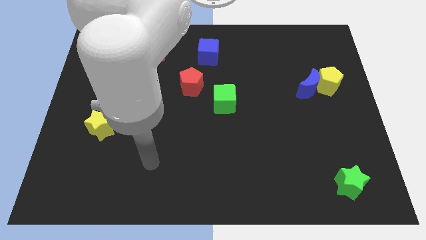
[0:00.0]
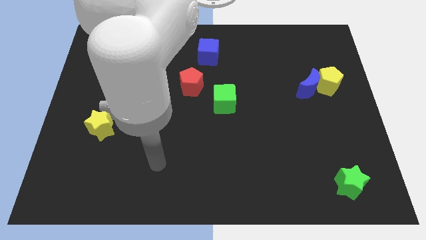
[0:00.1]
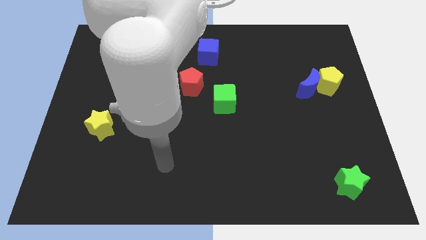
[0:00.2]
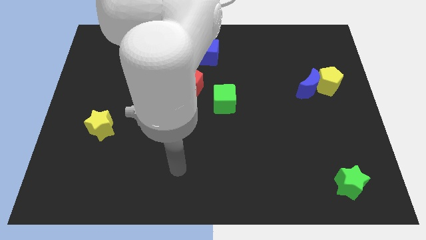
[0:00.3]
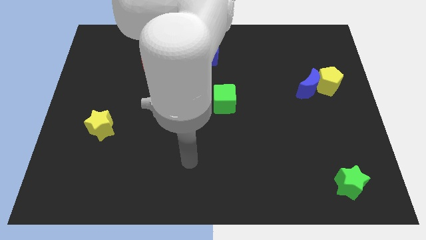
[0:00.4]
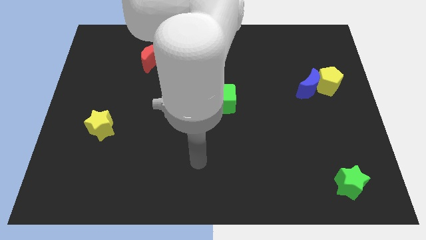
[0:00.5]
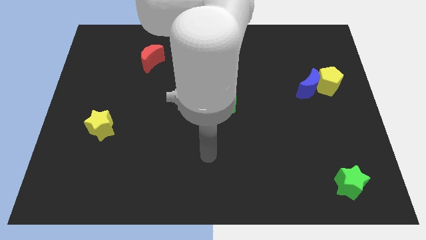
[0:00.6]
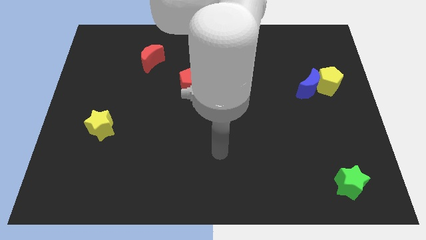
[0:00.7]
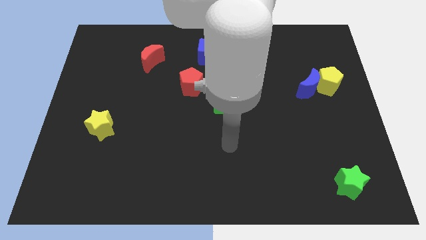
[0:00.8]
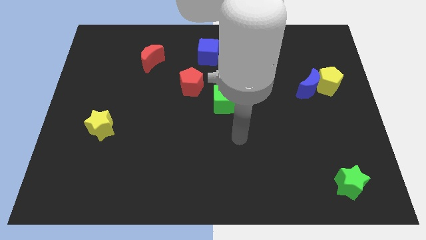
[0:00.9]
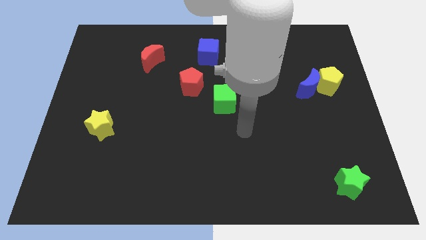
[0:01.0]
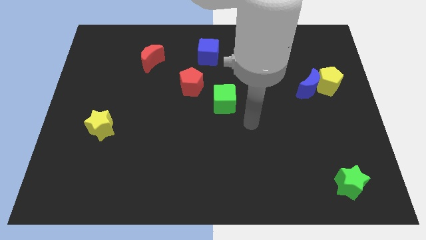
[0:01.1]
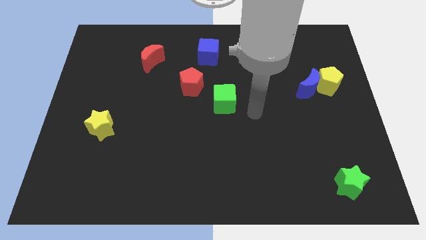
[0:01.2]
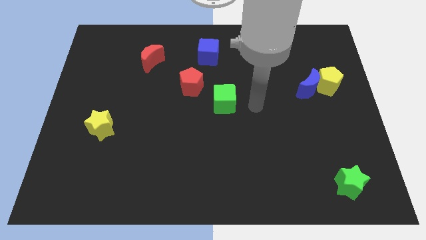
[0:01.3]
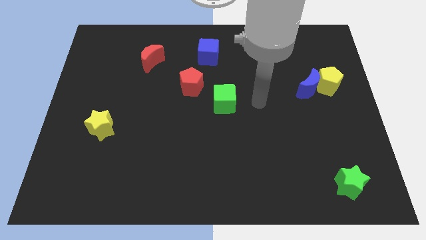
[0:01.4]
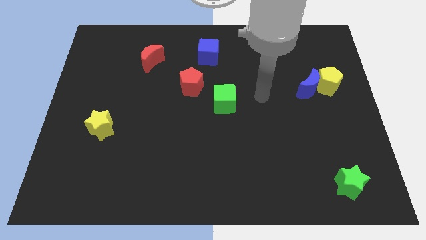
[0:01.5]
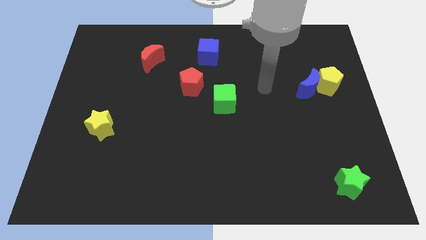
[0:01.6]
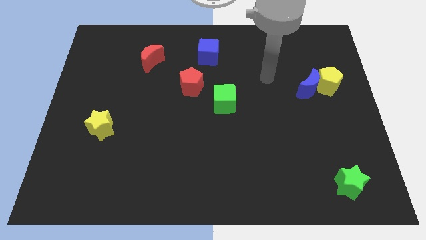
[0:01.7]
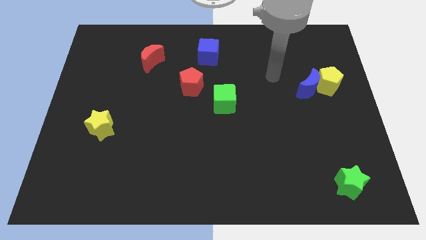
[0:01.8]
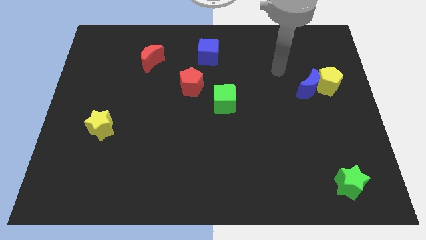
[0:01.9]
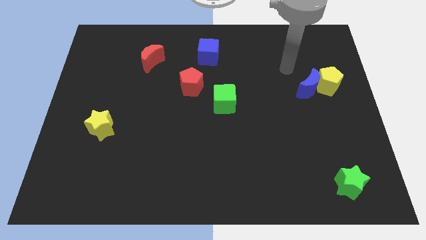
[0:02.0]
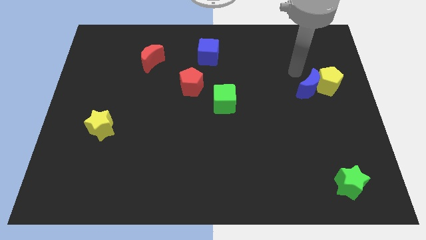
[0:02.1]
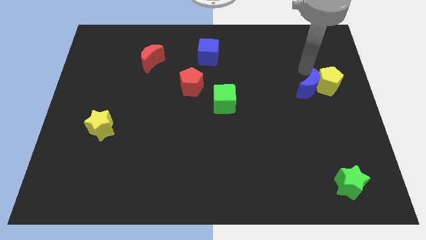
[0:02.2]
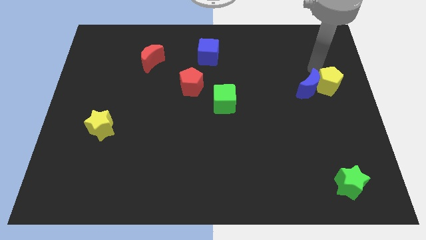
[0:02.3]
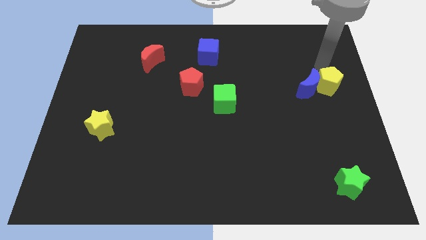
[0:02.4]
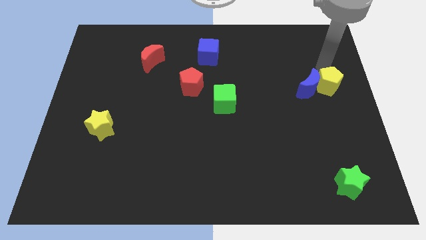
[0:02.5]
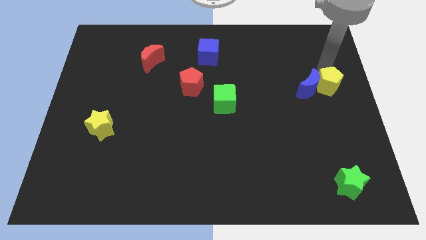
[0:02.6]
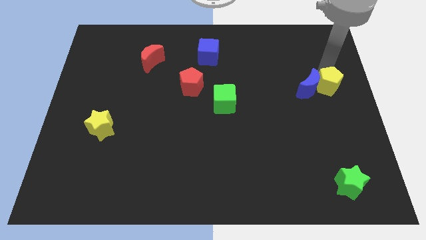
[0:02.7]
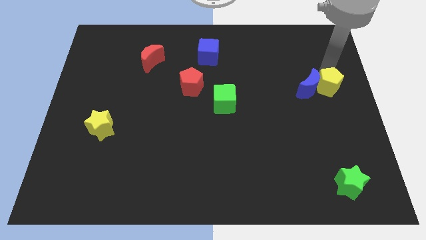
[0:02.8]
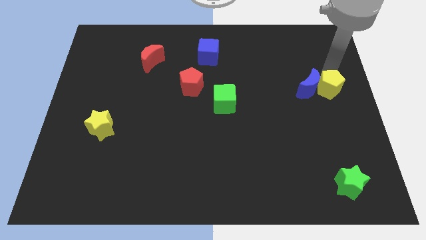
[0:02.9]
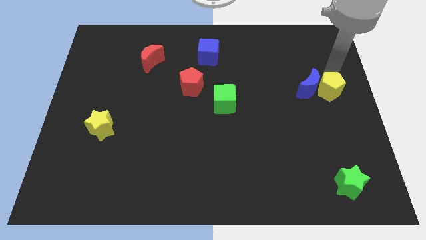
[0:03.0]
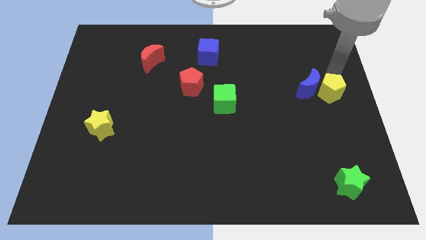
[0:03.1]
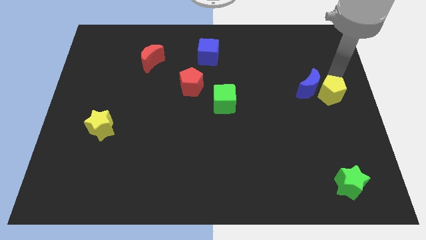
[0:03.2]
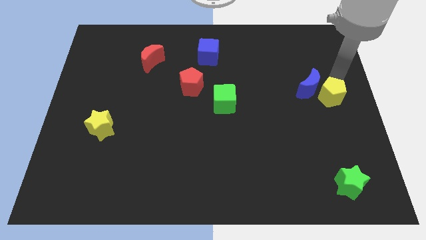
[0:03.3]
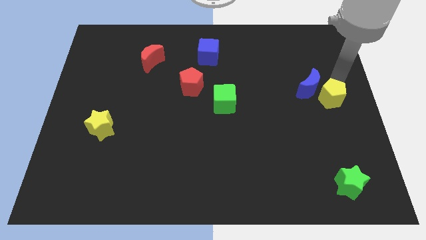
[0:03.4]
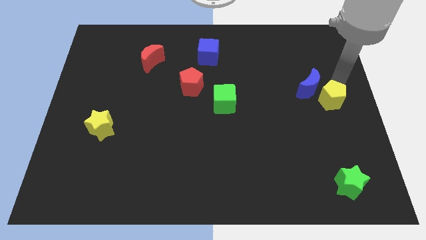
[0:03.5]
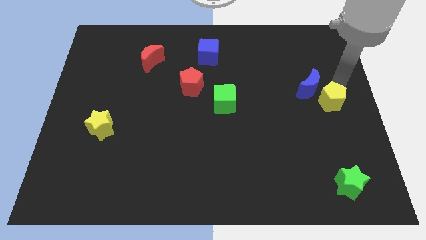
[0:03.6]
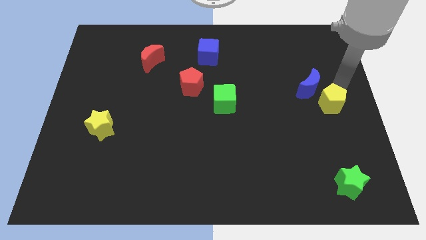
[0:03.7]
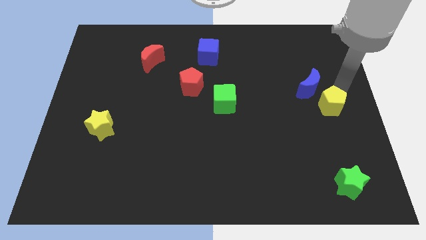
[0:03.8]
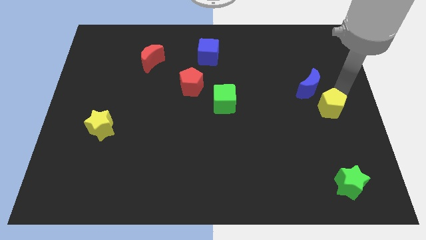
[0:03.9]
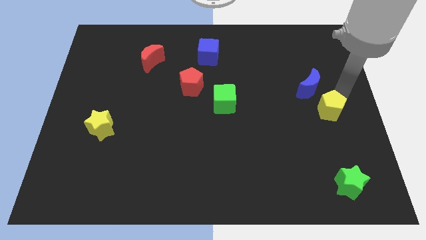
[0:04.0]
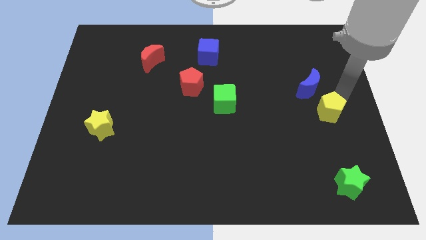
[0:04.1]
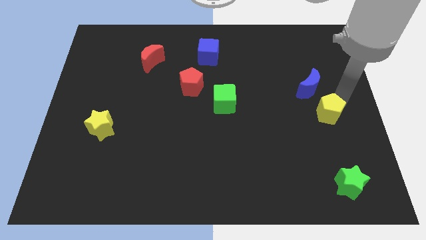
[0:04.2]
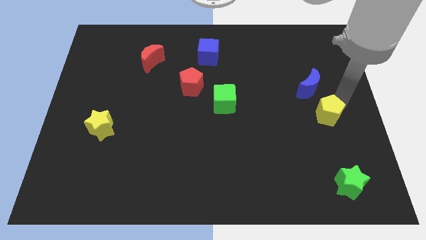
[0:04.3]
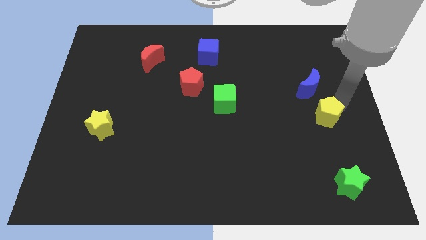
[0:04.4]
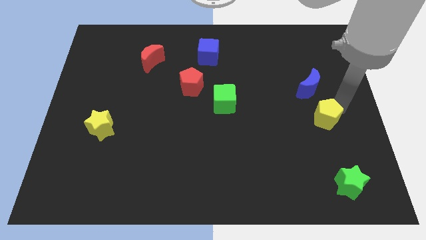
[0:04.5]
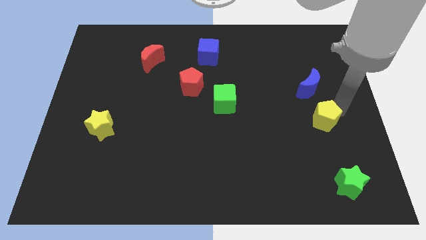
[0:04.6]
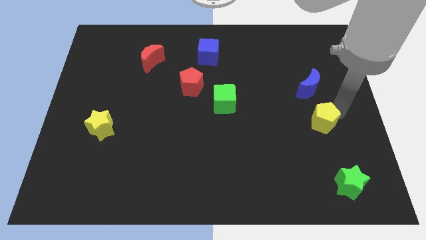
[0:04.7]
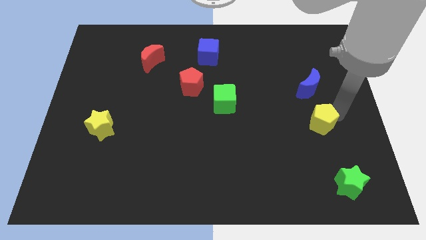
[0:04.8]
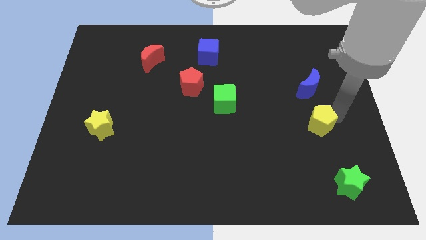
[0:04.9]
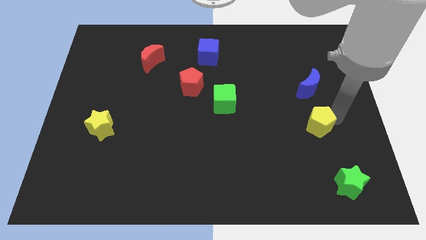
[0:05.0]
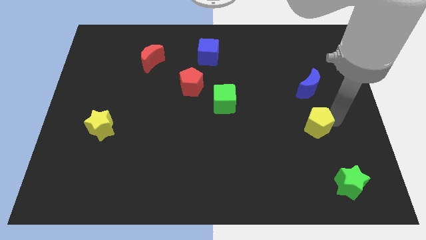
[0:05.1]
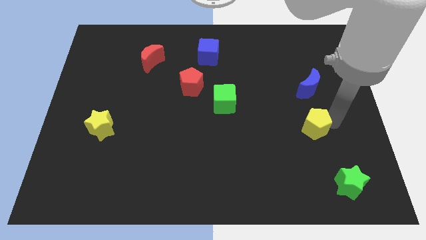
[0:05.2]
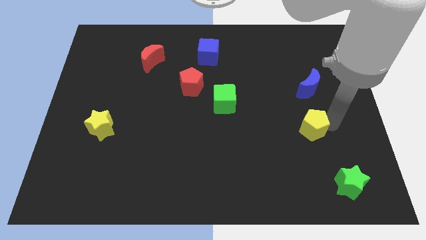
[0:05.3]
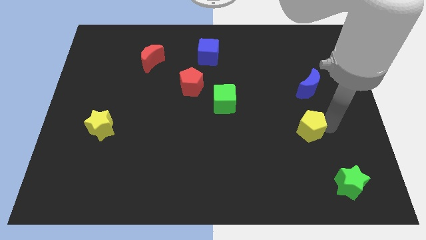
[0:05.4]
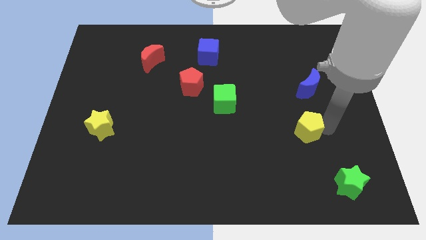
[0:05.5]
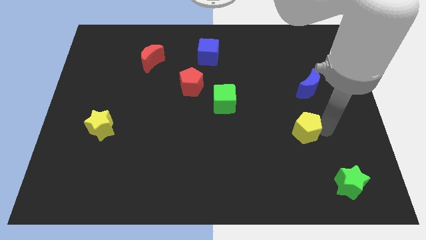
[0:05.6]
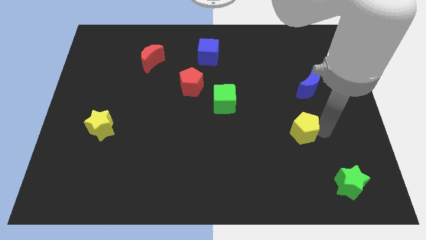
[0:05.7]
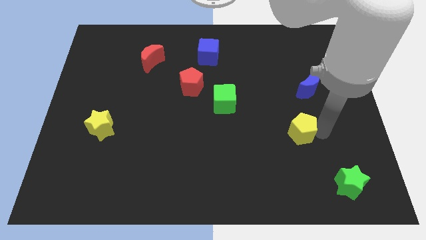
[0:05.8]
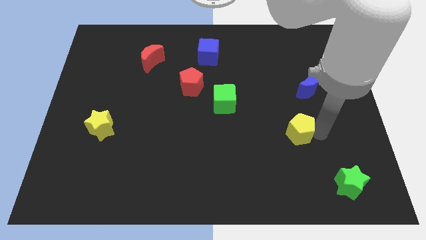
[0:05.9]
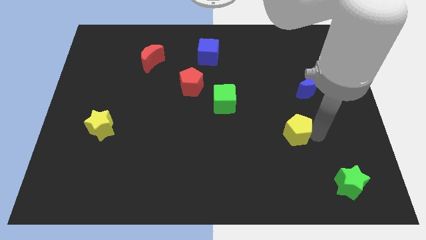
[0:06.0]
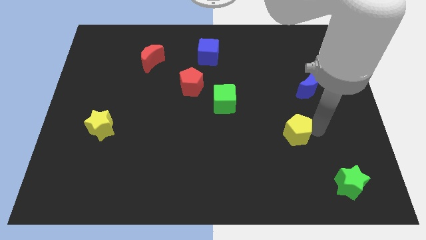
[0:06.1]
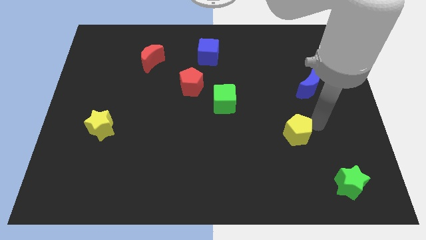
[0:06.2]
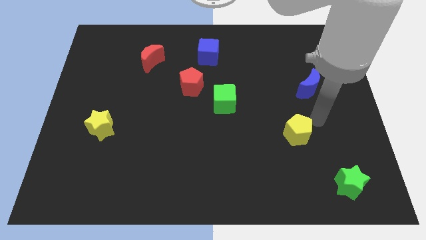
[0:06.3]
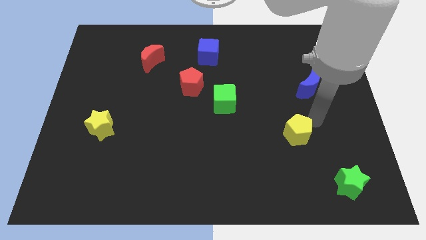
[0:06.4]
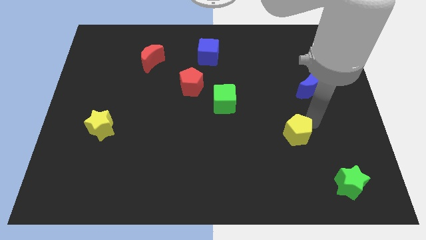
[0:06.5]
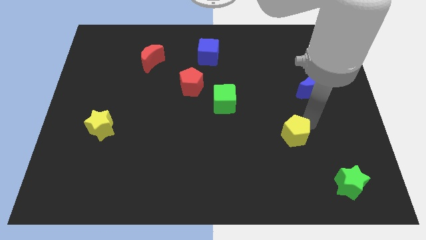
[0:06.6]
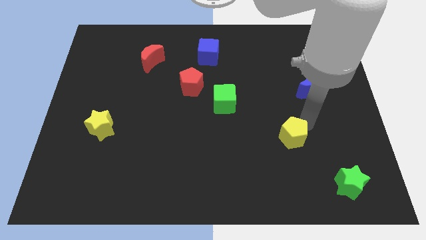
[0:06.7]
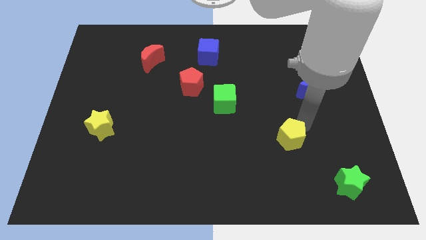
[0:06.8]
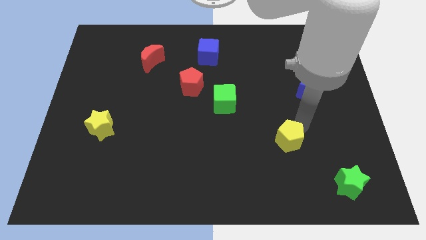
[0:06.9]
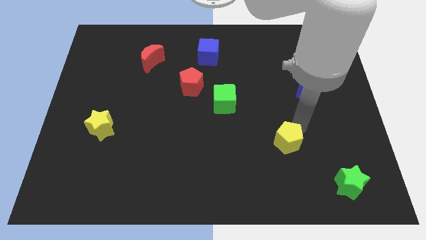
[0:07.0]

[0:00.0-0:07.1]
move the yellow pentagon diagonally downwards and left

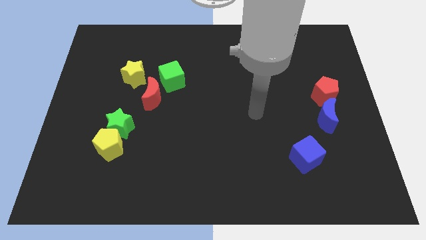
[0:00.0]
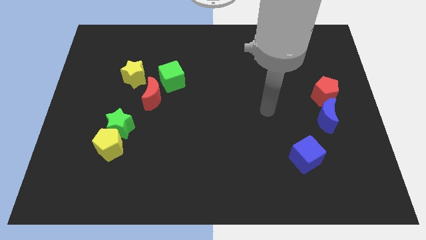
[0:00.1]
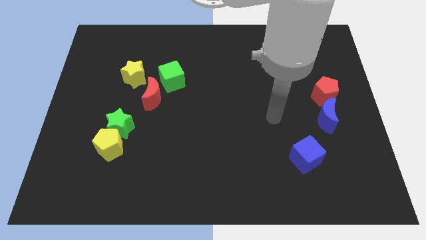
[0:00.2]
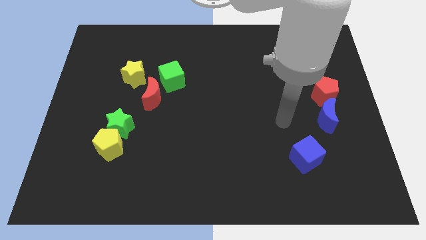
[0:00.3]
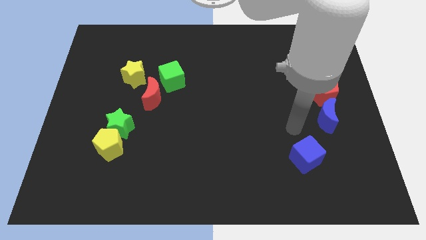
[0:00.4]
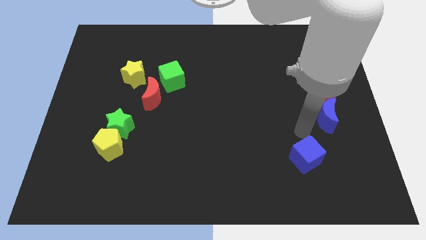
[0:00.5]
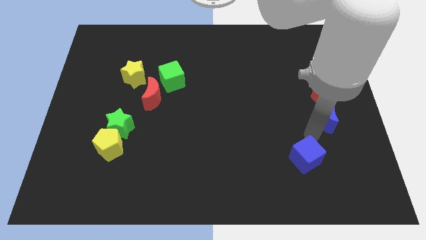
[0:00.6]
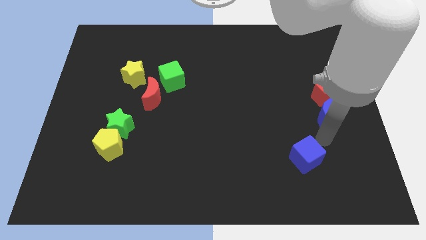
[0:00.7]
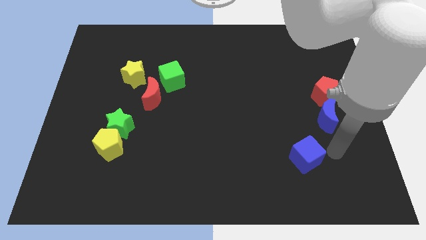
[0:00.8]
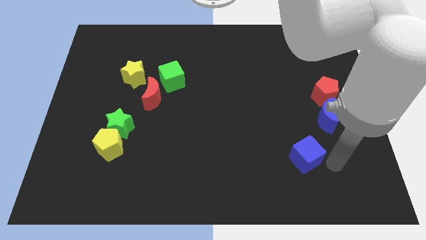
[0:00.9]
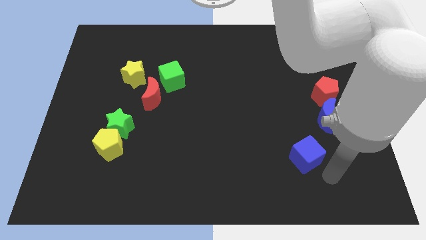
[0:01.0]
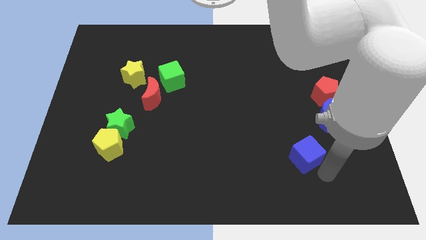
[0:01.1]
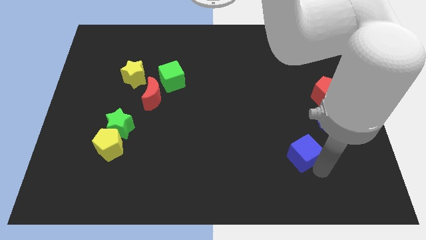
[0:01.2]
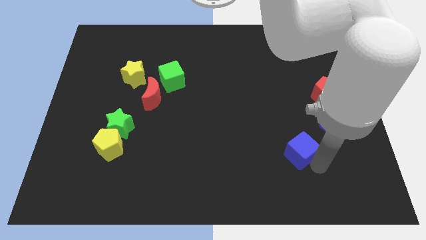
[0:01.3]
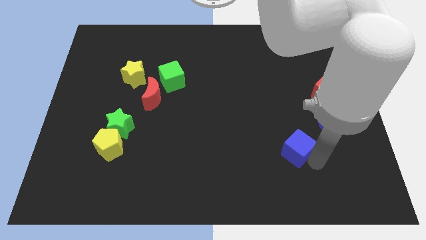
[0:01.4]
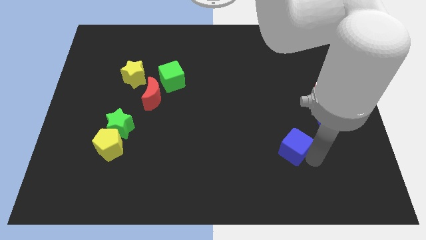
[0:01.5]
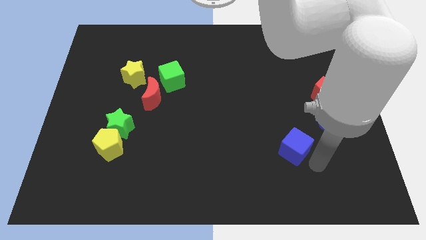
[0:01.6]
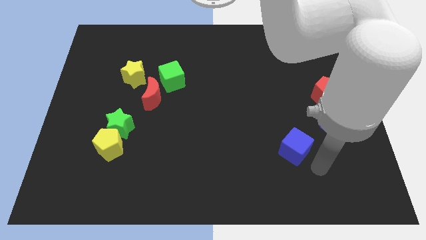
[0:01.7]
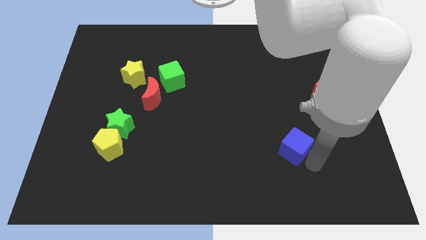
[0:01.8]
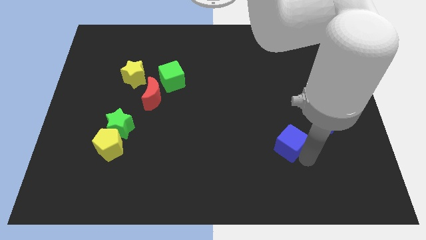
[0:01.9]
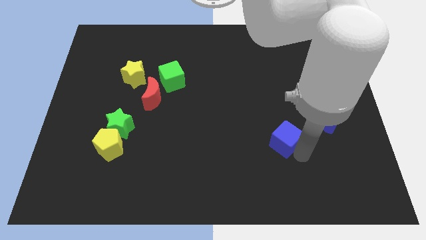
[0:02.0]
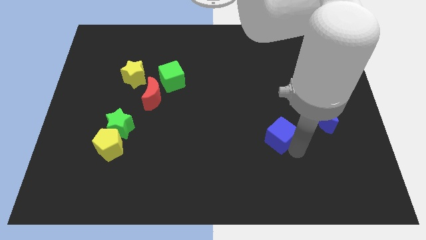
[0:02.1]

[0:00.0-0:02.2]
move the blue cube a little bit up and to the left
